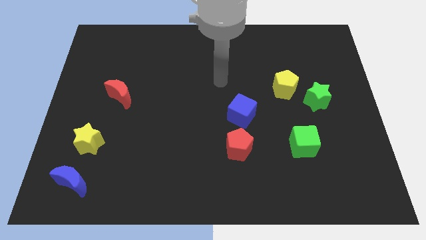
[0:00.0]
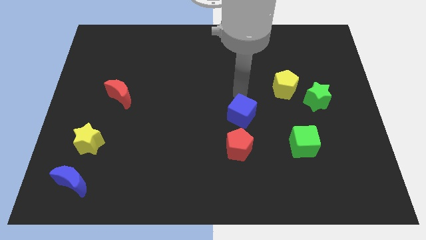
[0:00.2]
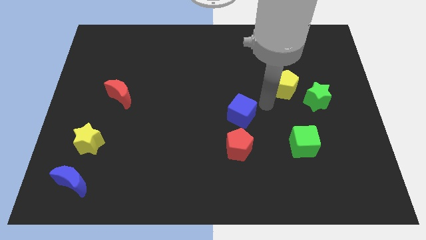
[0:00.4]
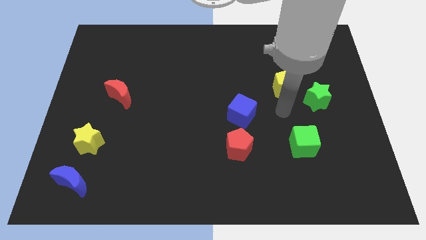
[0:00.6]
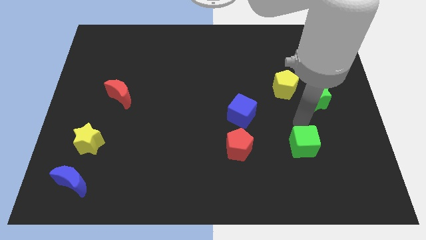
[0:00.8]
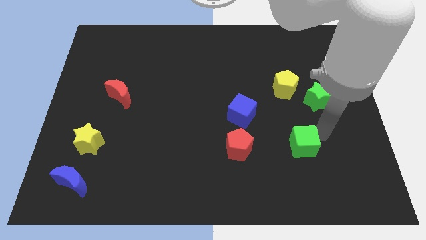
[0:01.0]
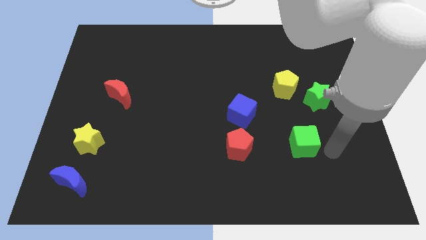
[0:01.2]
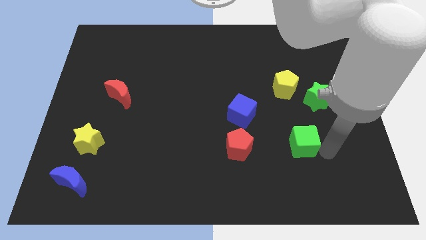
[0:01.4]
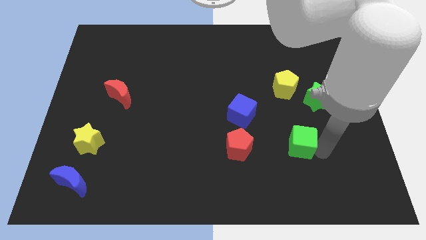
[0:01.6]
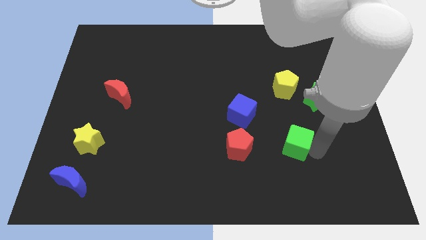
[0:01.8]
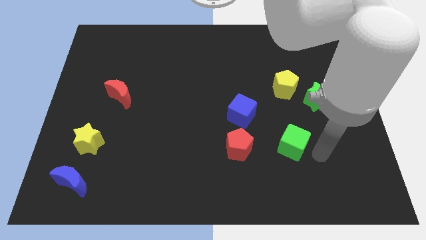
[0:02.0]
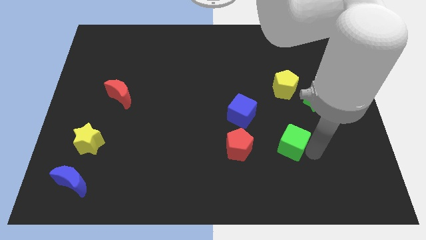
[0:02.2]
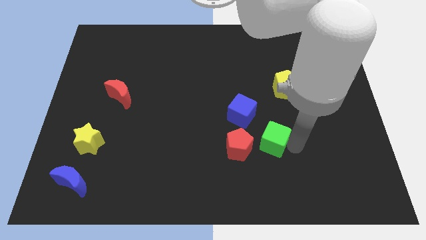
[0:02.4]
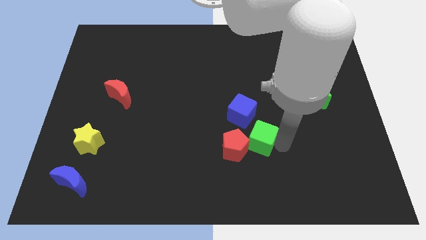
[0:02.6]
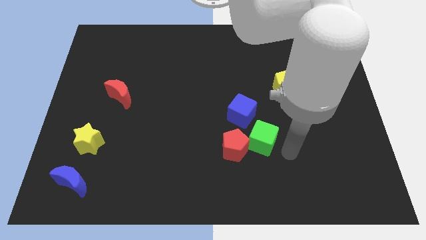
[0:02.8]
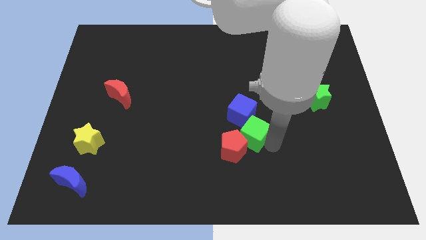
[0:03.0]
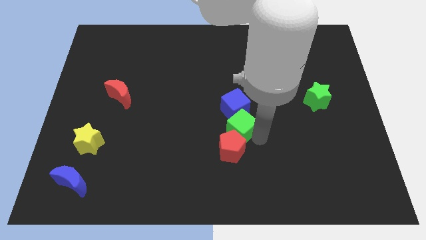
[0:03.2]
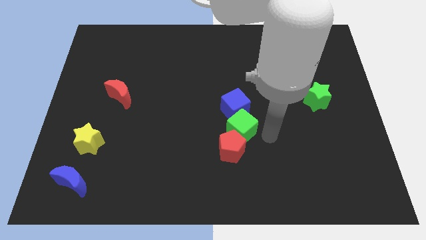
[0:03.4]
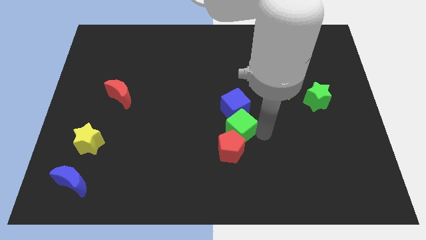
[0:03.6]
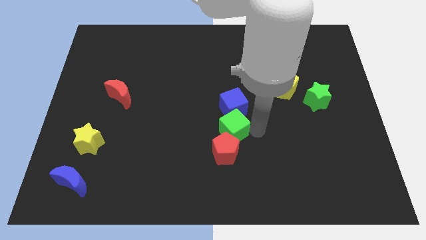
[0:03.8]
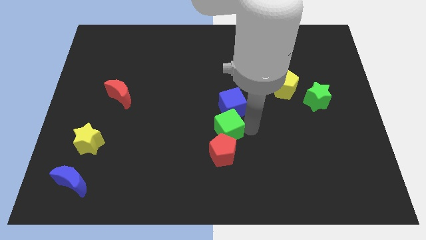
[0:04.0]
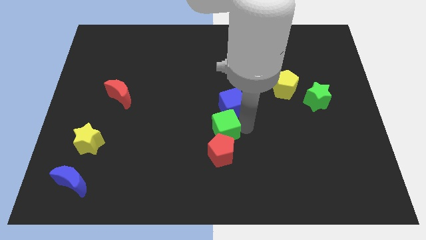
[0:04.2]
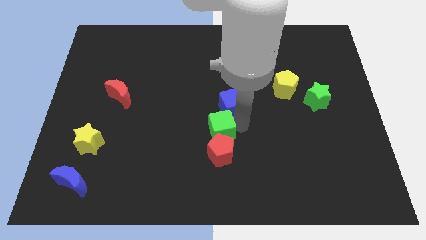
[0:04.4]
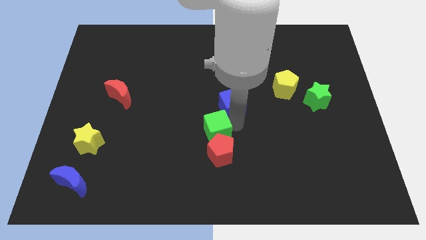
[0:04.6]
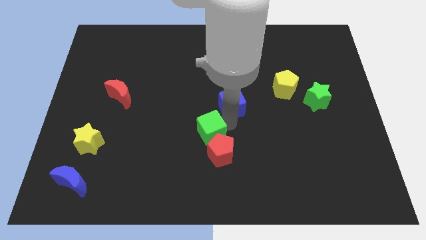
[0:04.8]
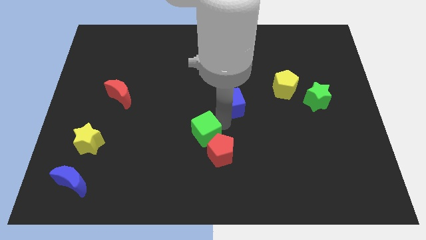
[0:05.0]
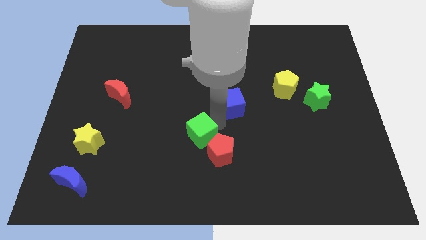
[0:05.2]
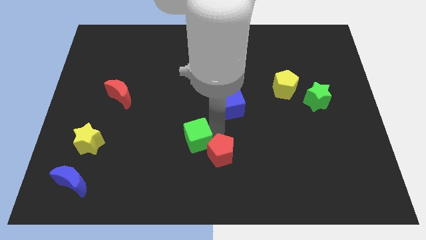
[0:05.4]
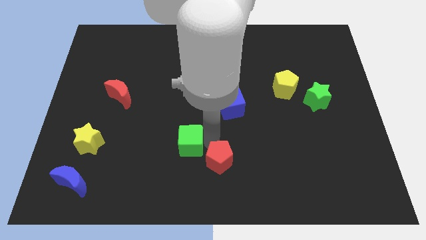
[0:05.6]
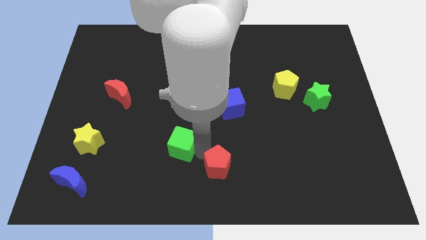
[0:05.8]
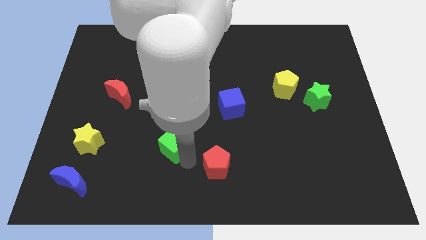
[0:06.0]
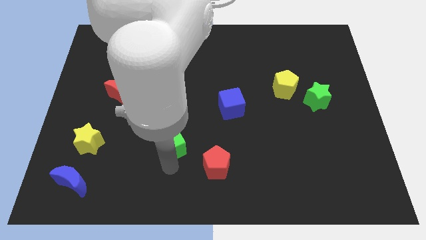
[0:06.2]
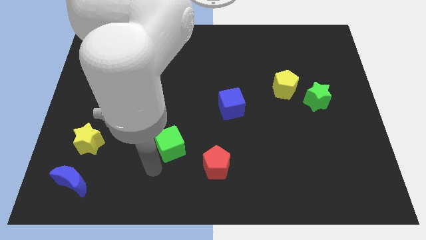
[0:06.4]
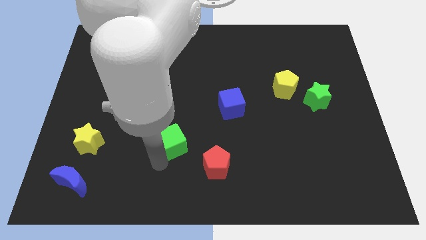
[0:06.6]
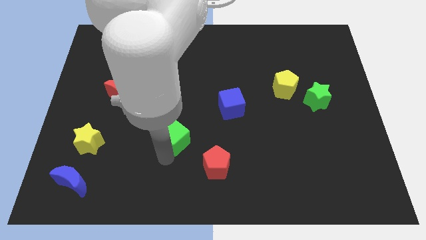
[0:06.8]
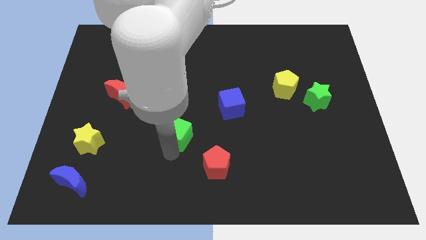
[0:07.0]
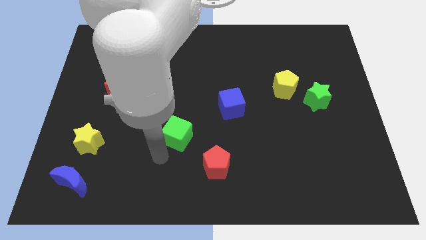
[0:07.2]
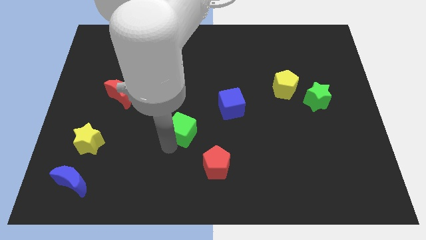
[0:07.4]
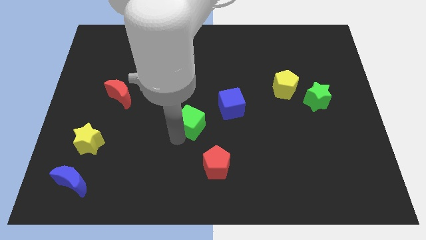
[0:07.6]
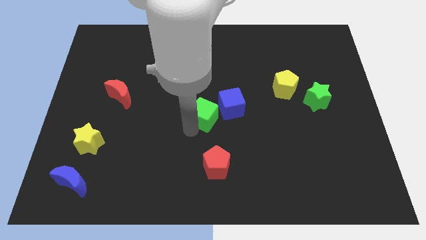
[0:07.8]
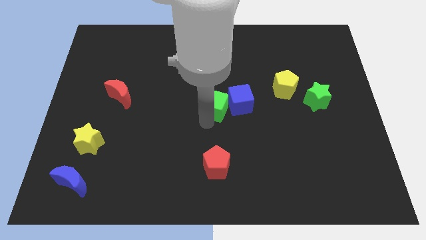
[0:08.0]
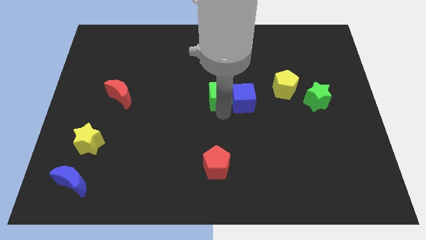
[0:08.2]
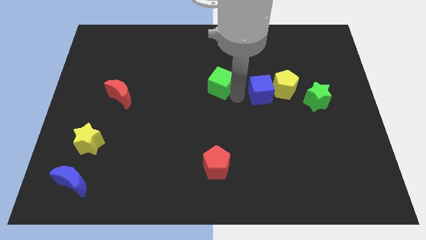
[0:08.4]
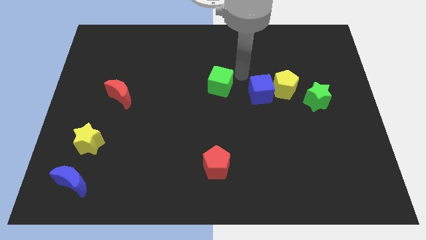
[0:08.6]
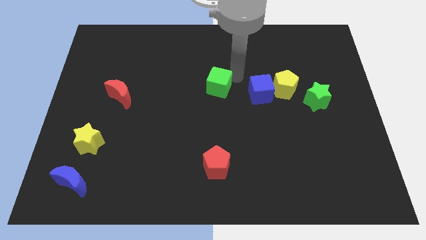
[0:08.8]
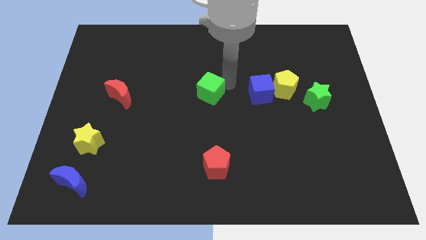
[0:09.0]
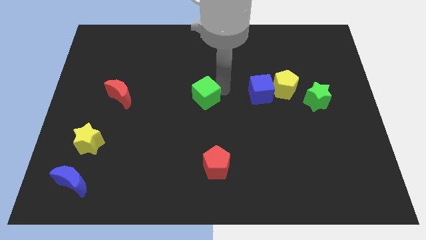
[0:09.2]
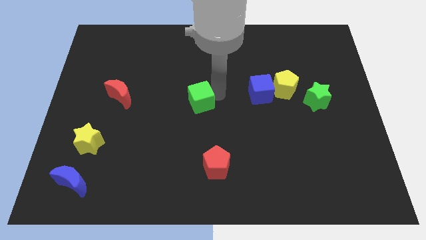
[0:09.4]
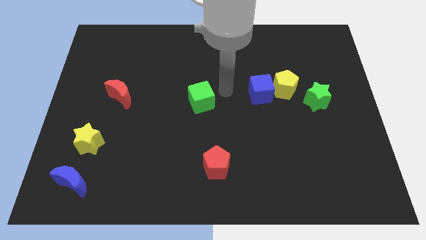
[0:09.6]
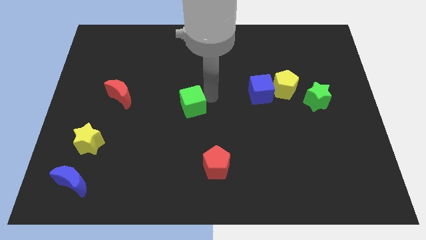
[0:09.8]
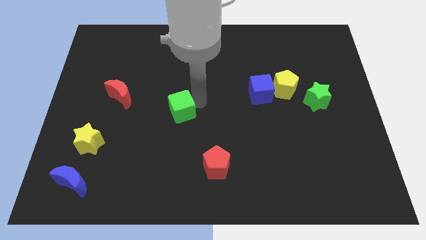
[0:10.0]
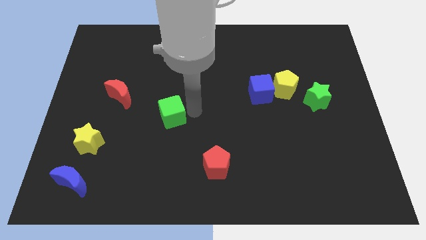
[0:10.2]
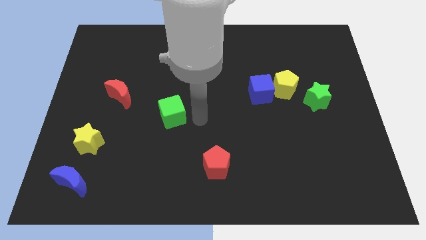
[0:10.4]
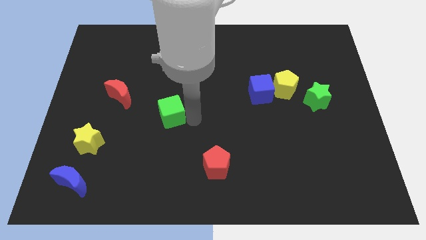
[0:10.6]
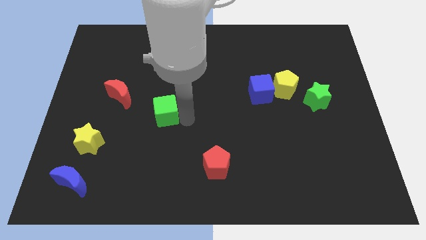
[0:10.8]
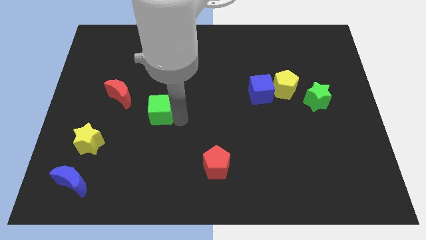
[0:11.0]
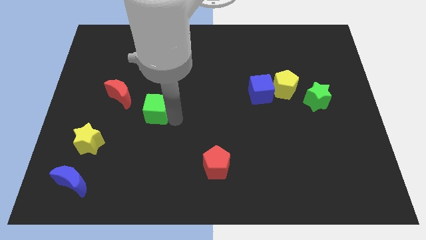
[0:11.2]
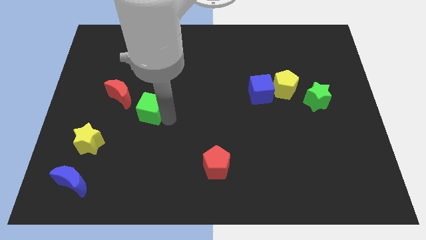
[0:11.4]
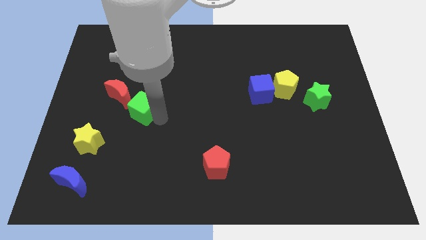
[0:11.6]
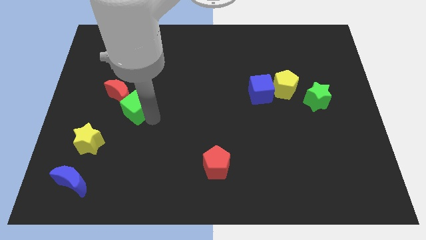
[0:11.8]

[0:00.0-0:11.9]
slide the green cube close to the red moon

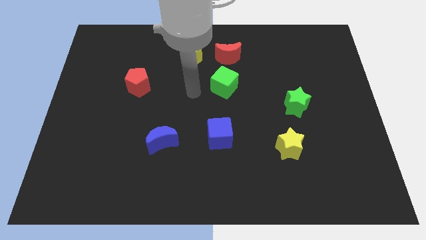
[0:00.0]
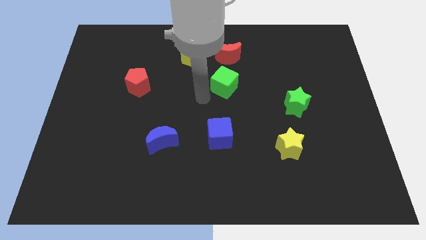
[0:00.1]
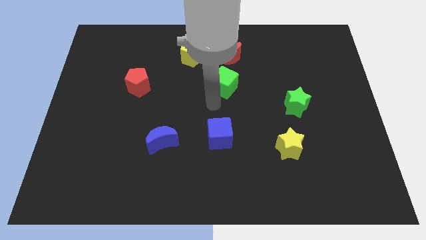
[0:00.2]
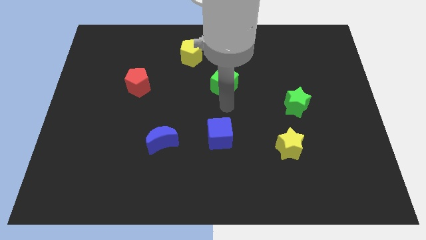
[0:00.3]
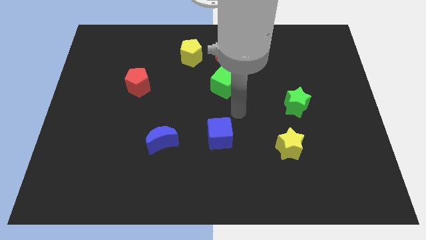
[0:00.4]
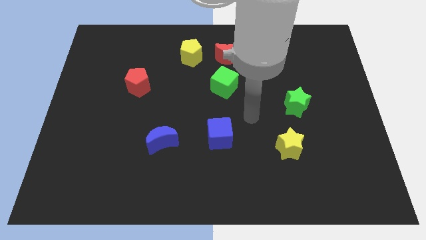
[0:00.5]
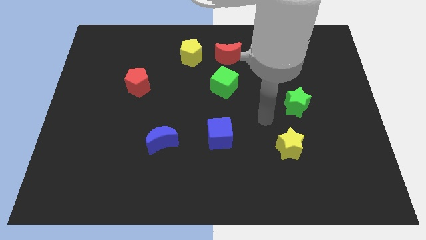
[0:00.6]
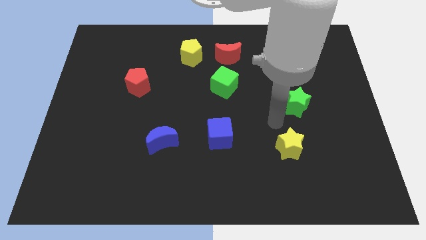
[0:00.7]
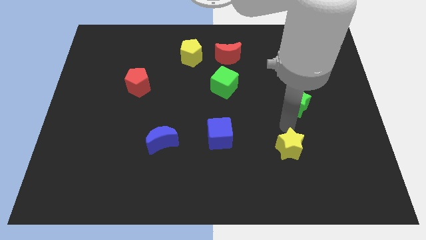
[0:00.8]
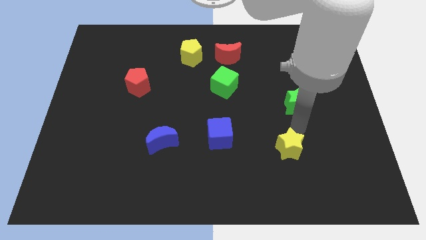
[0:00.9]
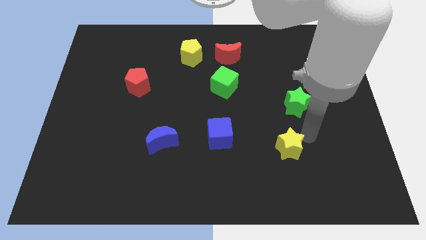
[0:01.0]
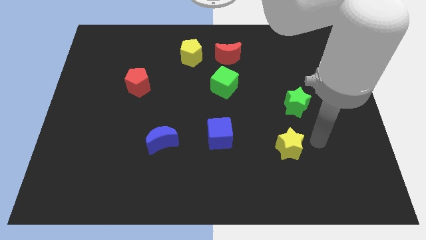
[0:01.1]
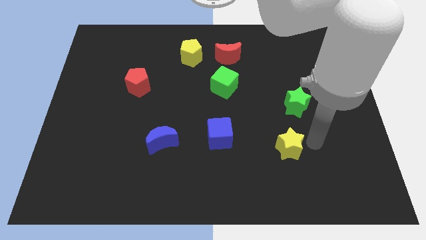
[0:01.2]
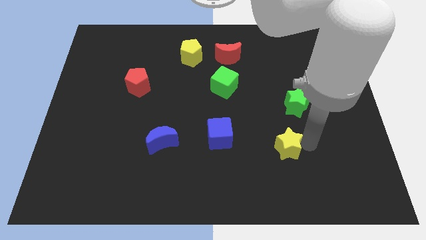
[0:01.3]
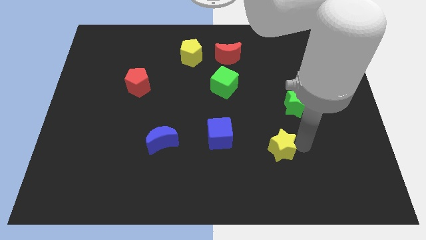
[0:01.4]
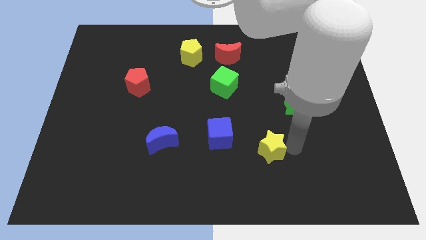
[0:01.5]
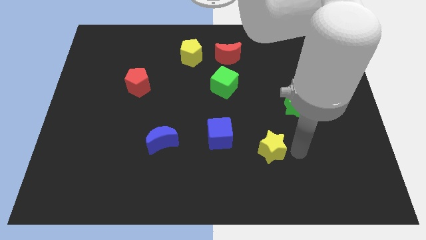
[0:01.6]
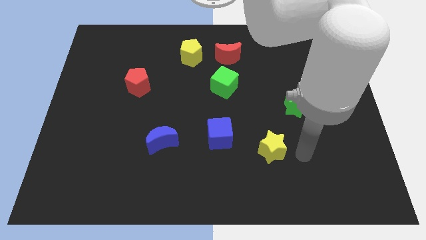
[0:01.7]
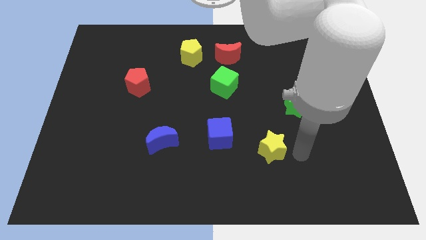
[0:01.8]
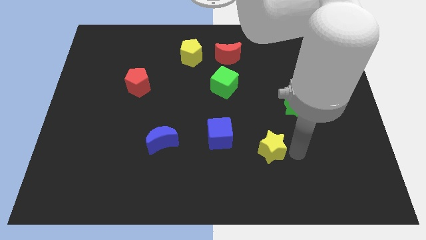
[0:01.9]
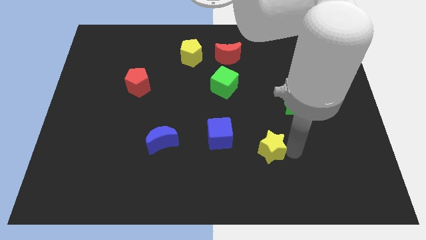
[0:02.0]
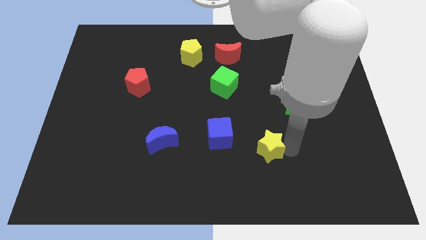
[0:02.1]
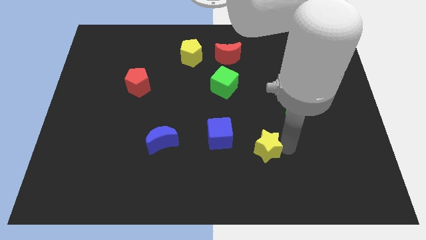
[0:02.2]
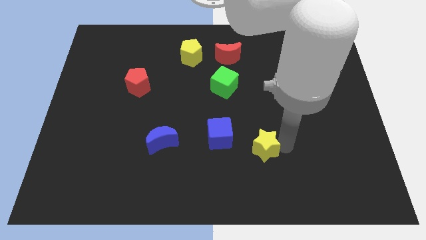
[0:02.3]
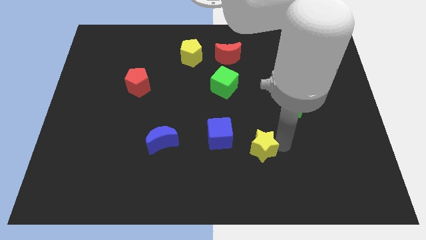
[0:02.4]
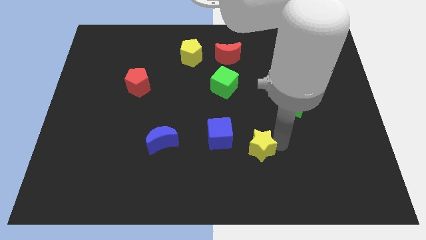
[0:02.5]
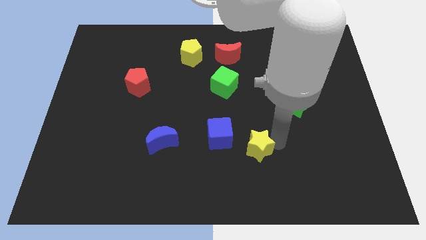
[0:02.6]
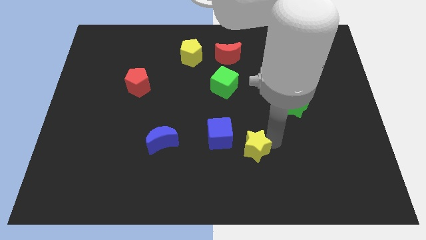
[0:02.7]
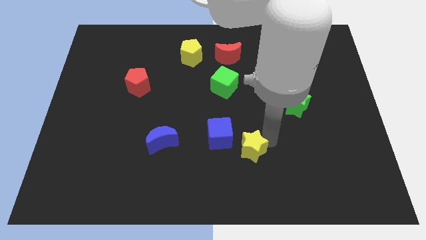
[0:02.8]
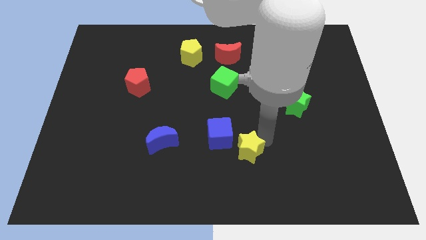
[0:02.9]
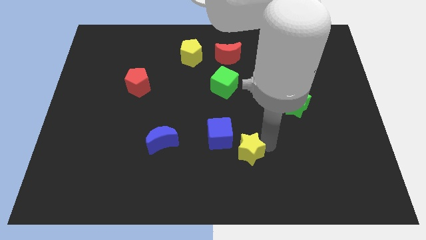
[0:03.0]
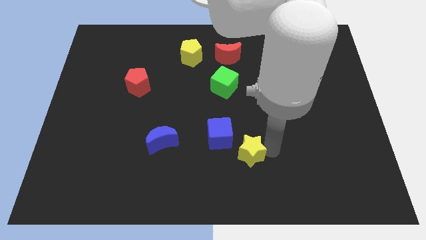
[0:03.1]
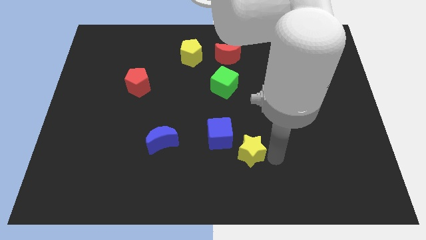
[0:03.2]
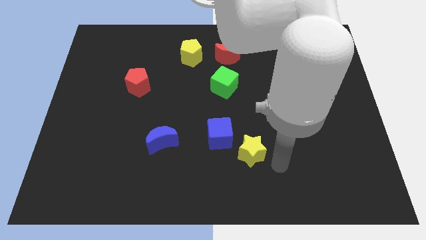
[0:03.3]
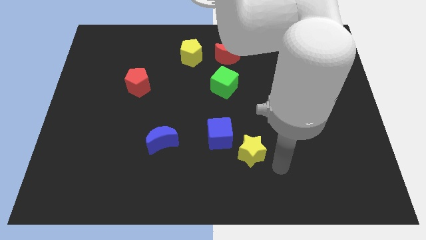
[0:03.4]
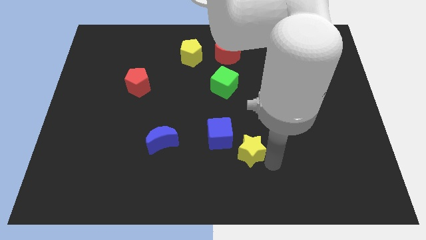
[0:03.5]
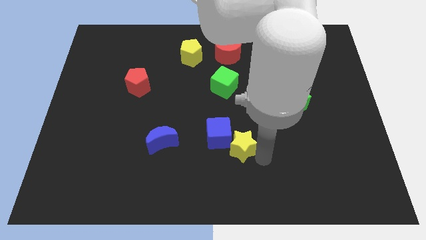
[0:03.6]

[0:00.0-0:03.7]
push the yellow star next to the blue cube
